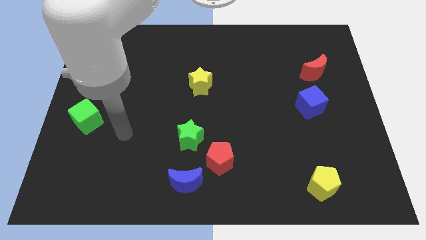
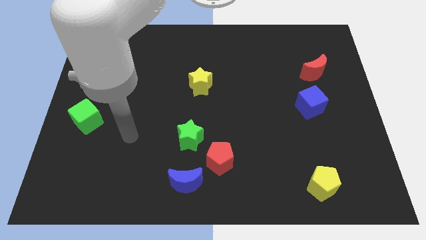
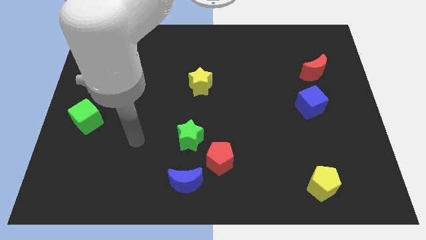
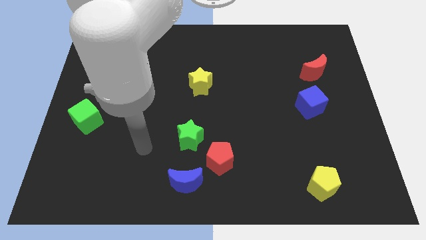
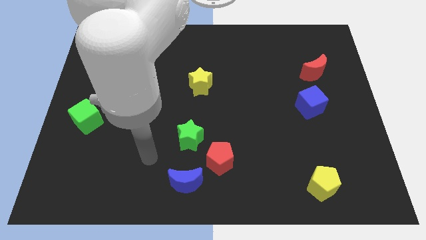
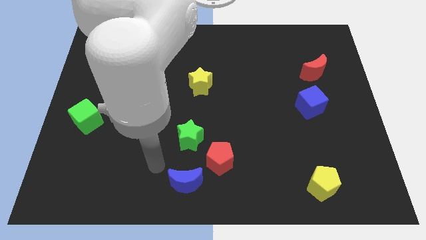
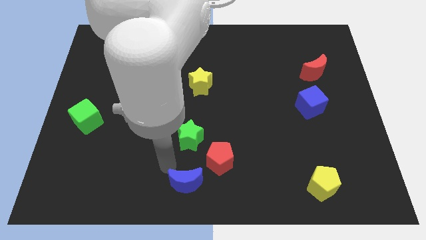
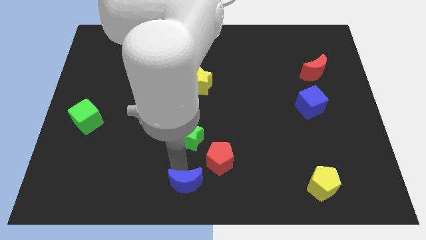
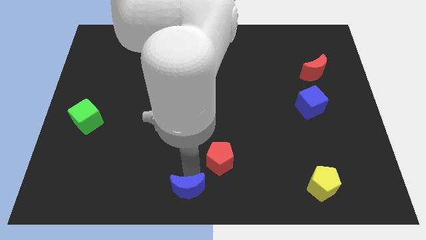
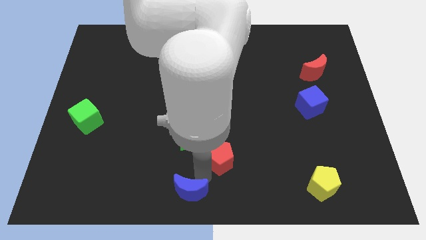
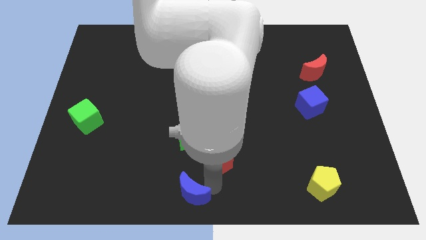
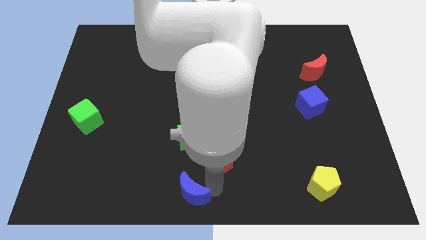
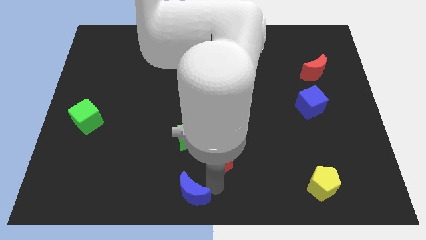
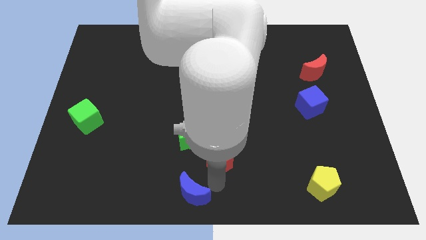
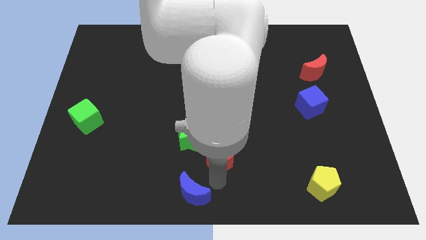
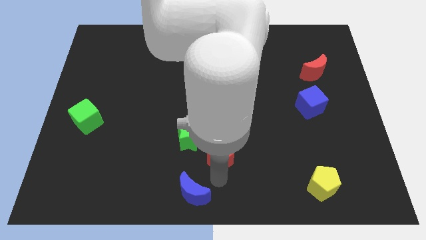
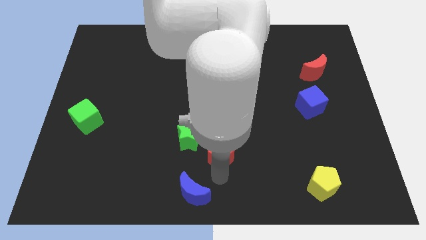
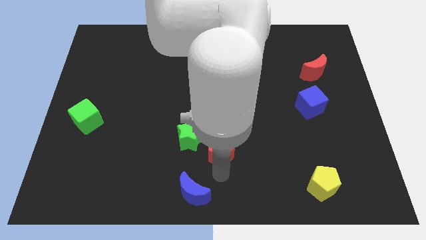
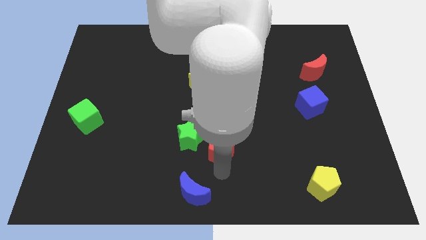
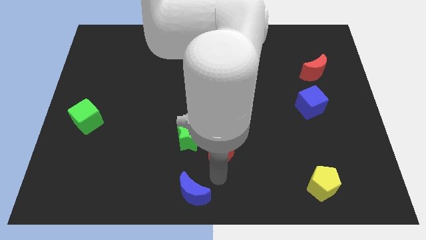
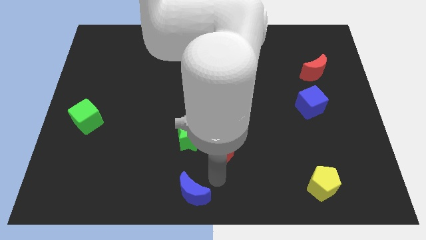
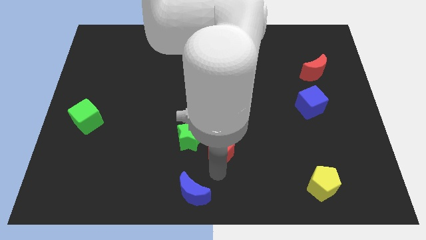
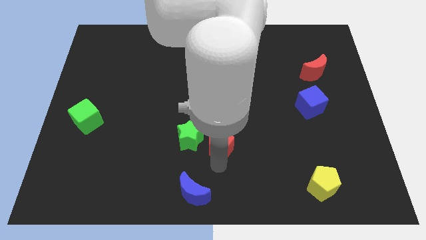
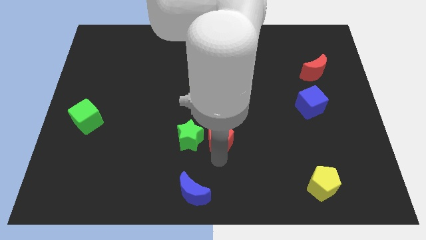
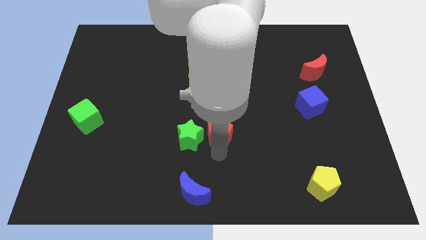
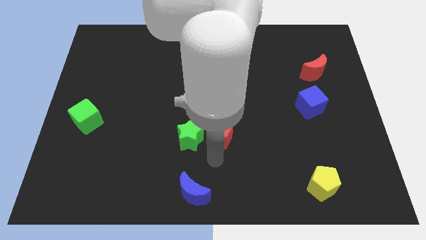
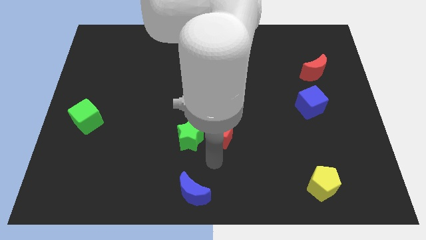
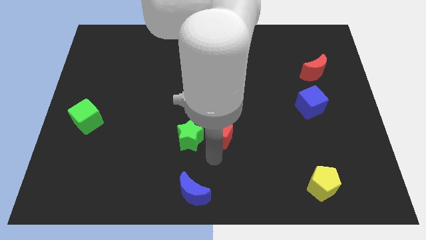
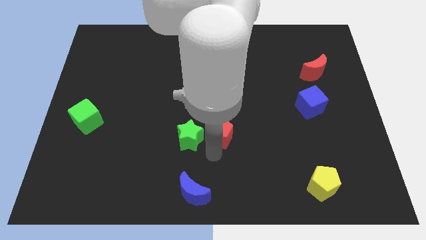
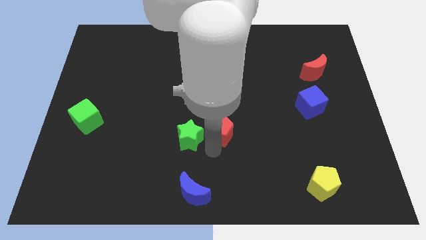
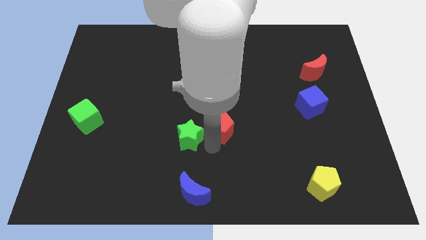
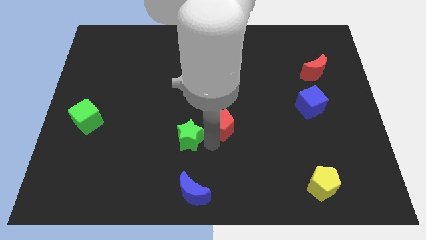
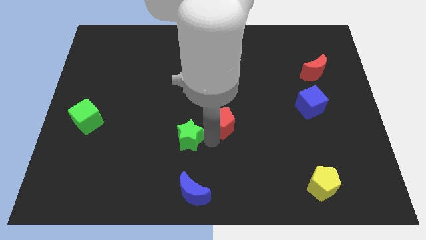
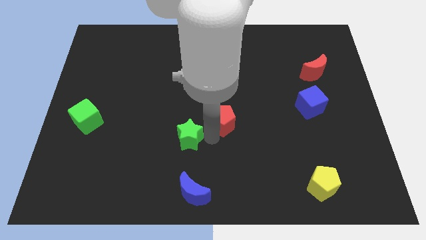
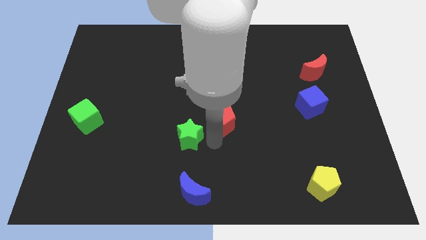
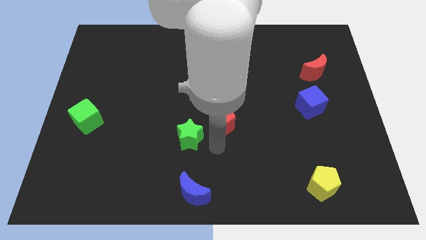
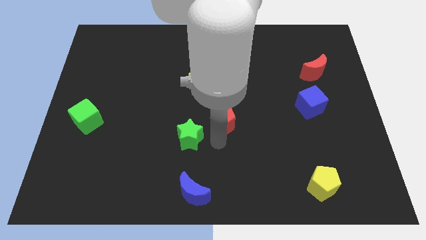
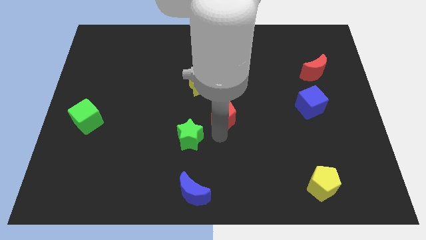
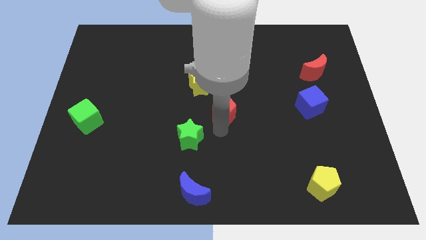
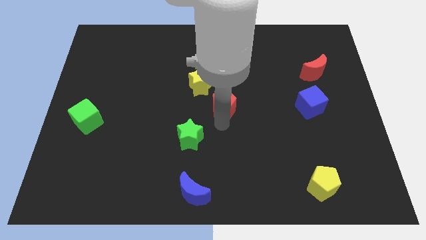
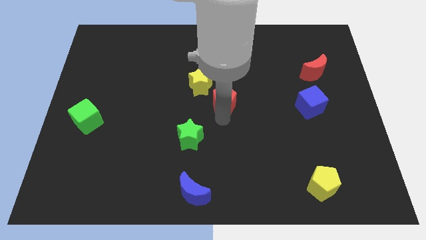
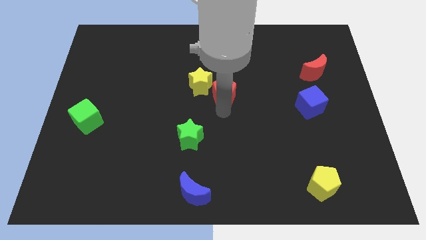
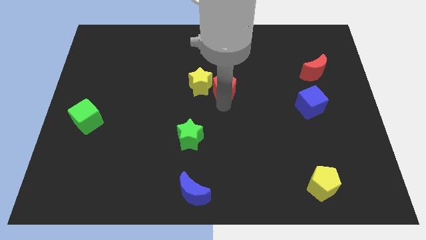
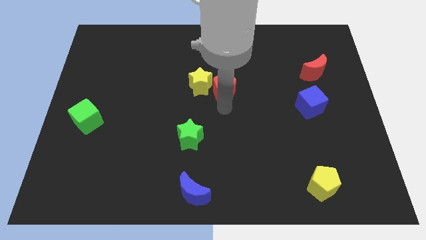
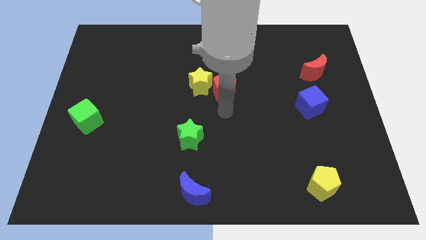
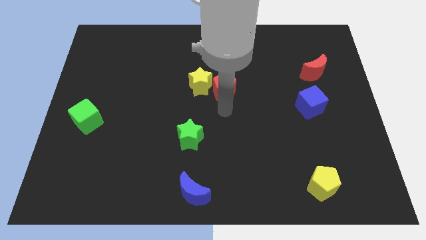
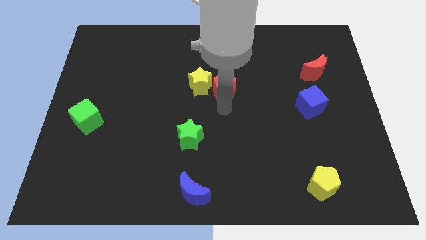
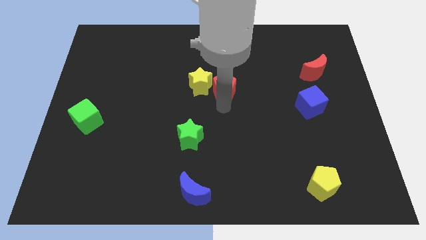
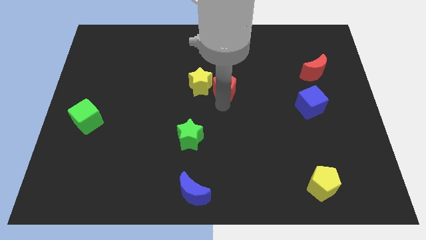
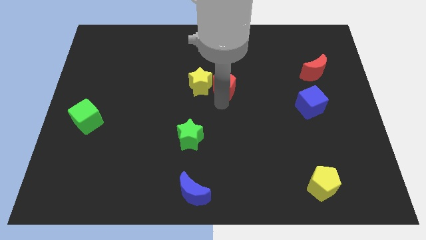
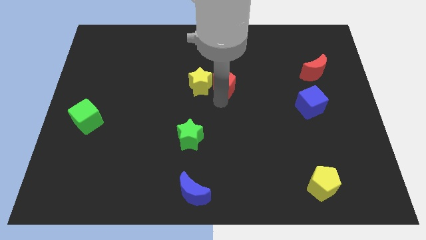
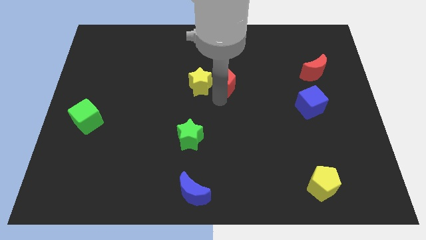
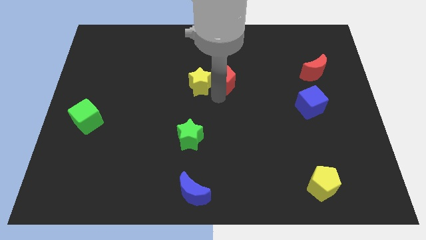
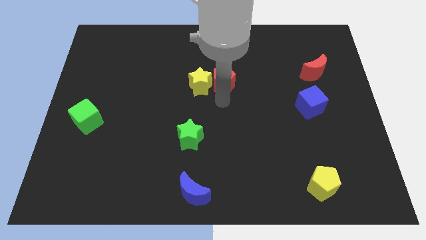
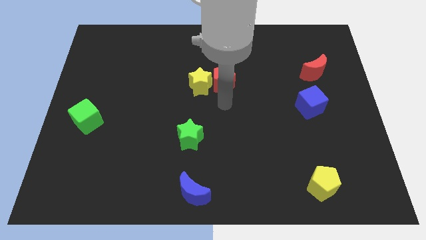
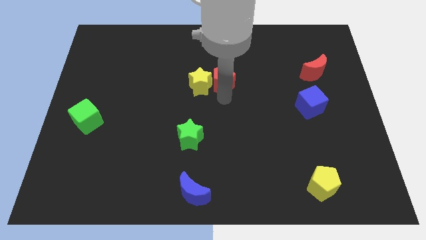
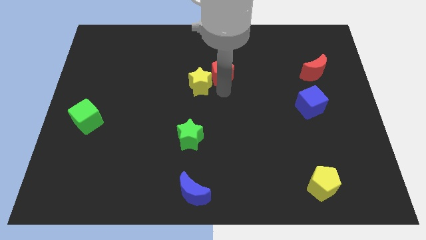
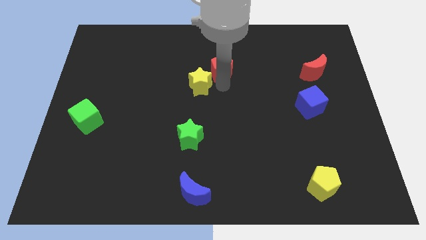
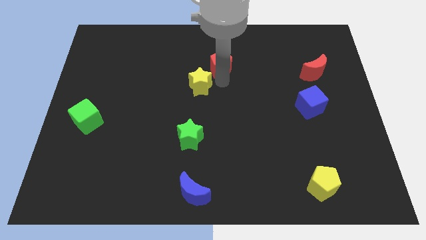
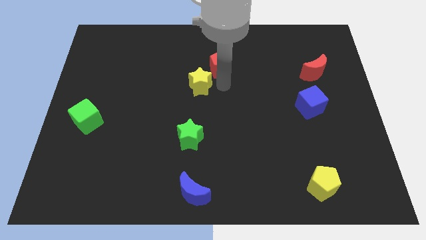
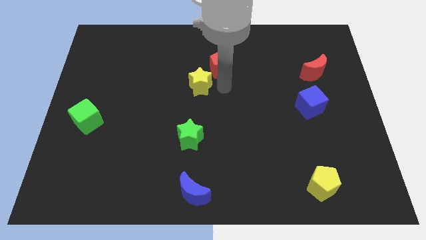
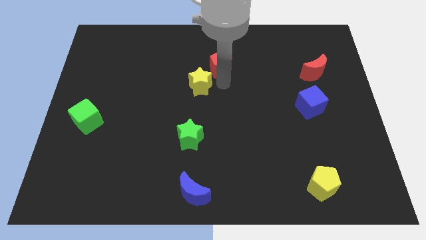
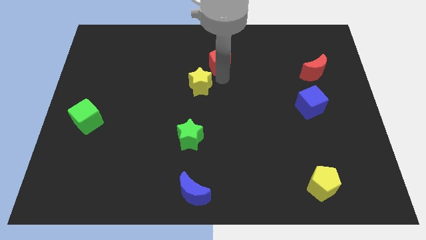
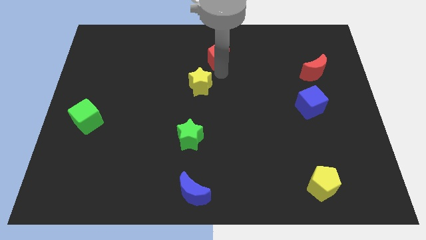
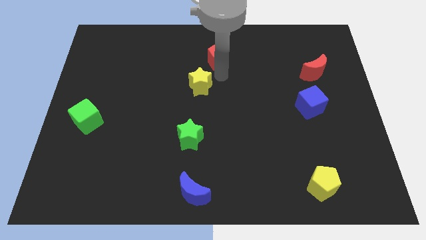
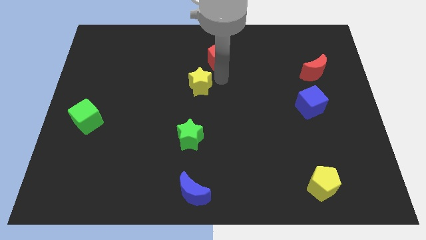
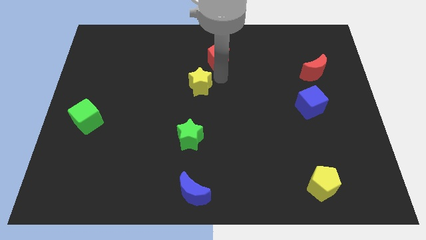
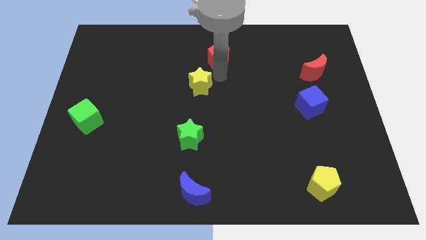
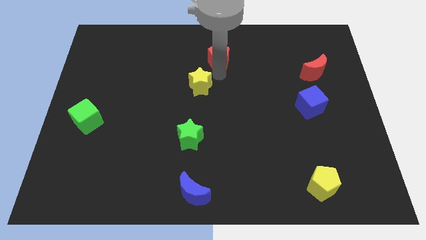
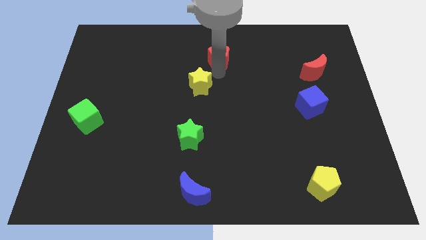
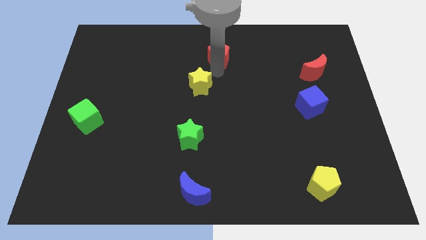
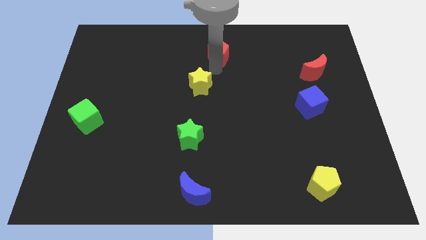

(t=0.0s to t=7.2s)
move the red pentagon to the towards your base
